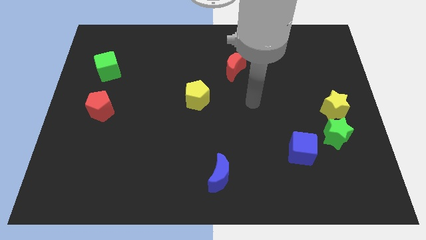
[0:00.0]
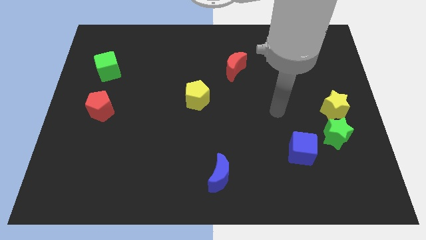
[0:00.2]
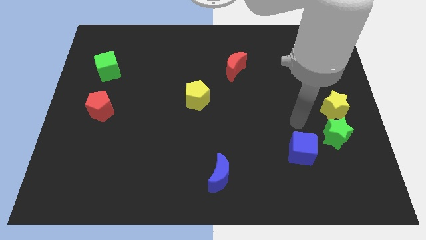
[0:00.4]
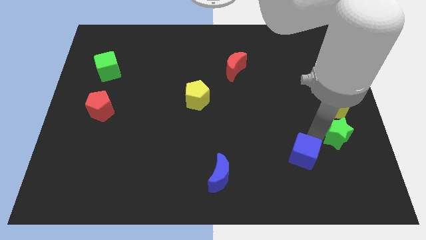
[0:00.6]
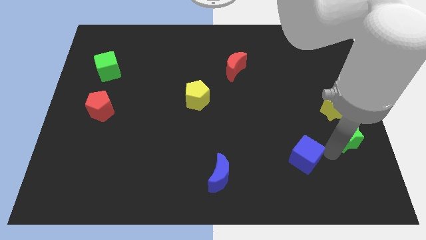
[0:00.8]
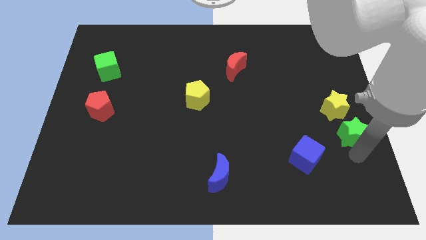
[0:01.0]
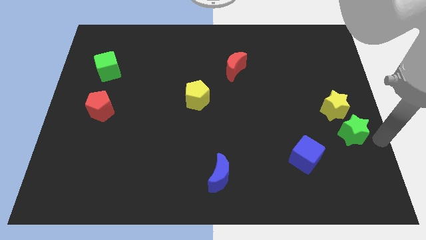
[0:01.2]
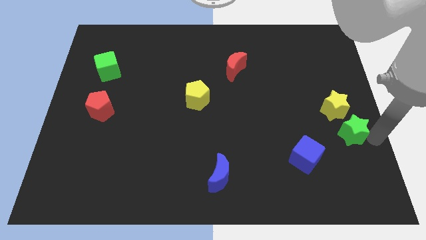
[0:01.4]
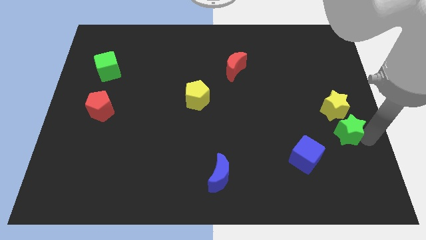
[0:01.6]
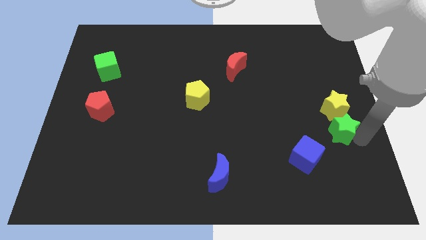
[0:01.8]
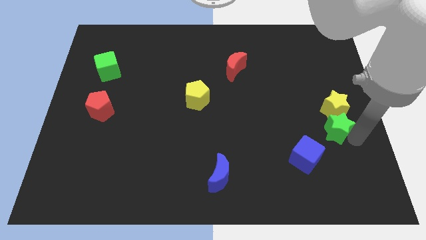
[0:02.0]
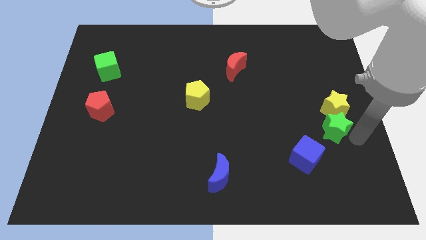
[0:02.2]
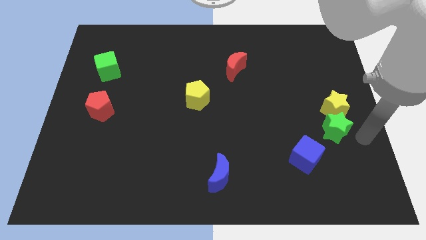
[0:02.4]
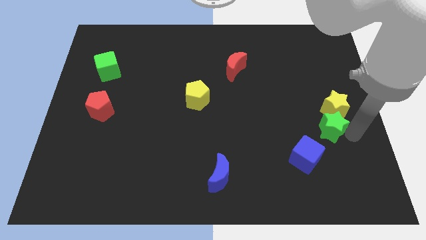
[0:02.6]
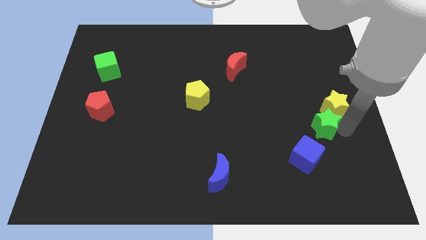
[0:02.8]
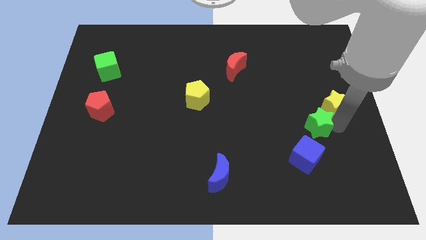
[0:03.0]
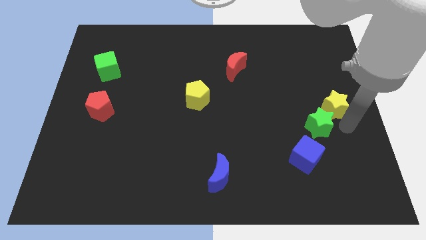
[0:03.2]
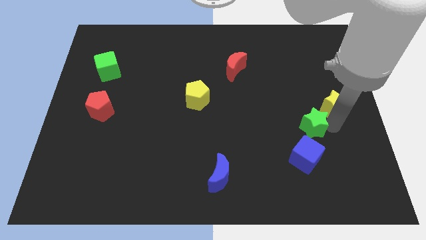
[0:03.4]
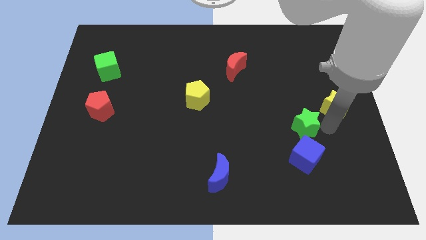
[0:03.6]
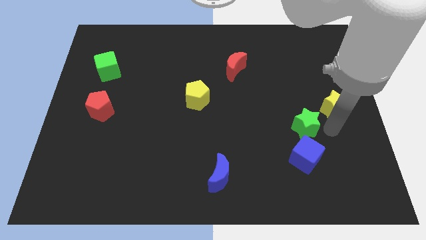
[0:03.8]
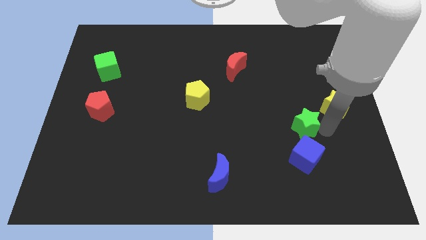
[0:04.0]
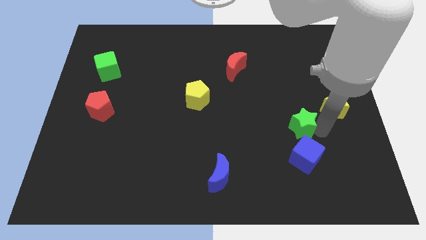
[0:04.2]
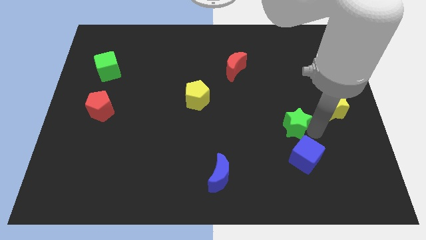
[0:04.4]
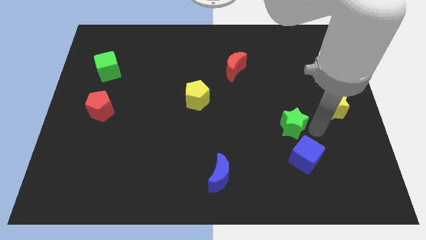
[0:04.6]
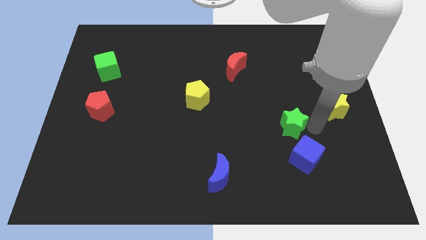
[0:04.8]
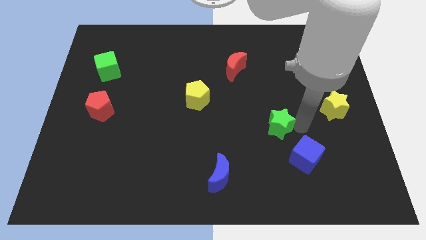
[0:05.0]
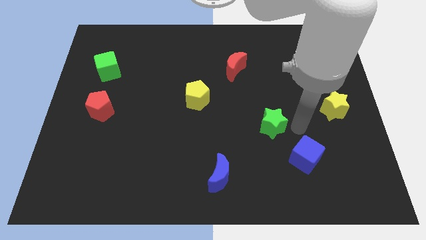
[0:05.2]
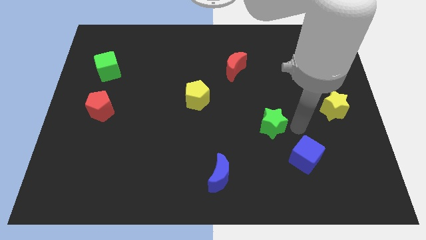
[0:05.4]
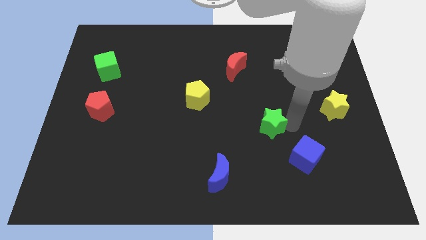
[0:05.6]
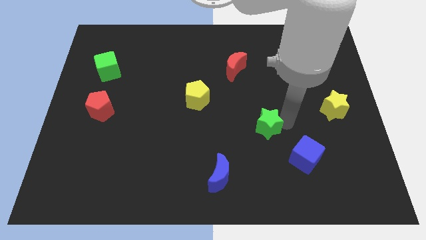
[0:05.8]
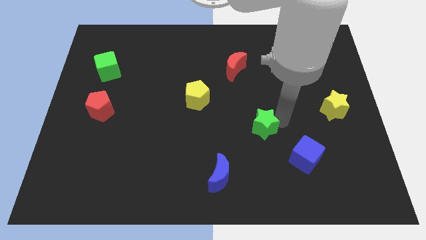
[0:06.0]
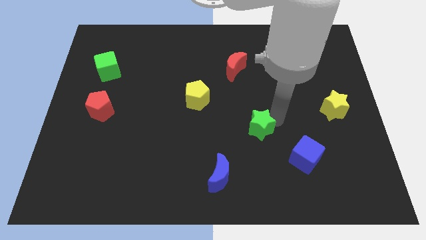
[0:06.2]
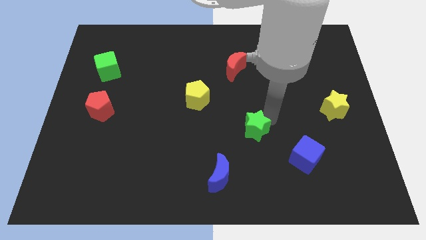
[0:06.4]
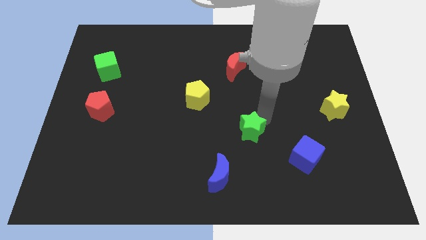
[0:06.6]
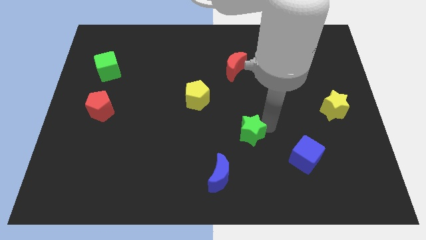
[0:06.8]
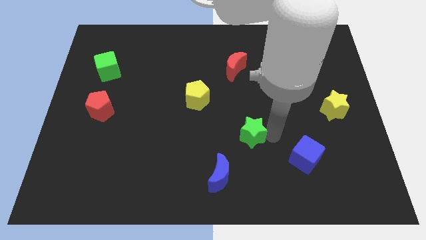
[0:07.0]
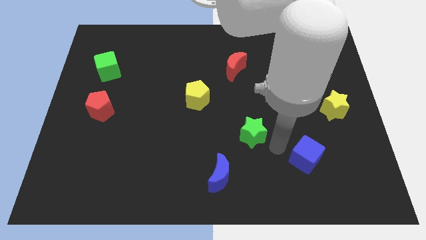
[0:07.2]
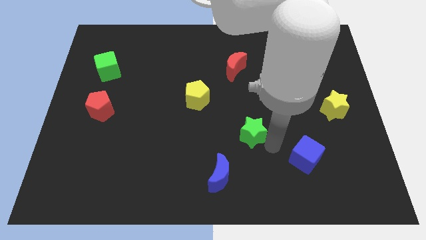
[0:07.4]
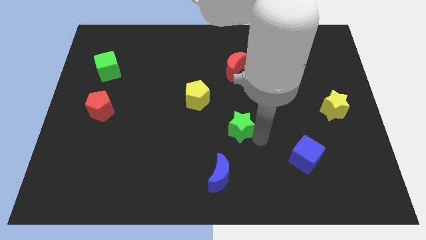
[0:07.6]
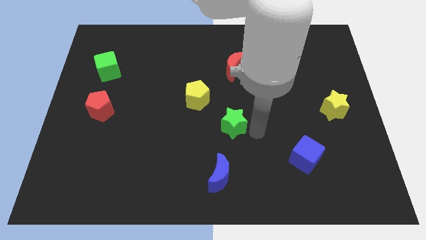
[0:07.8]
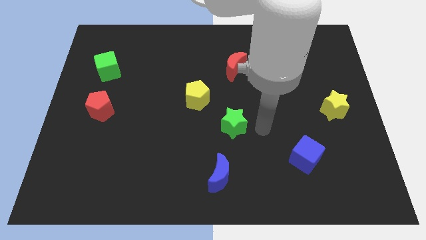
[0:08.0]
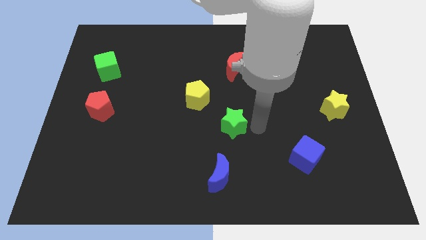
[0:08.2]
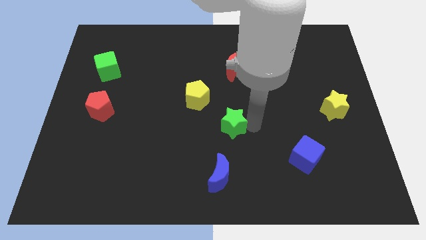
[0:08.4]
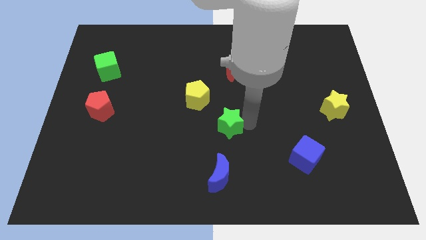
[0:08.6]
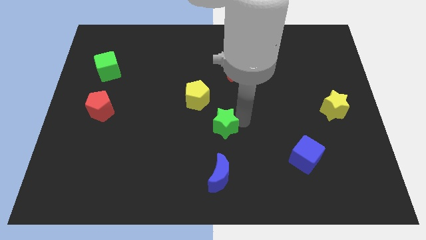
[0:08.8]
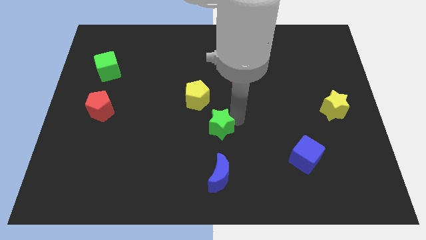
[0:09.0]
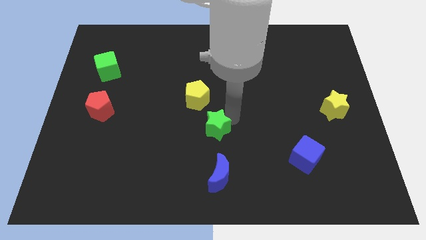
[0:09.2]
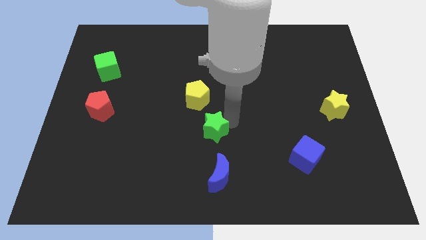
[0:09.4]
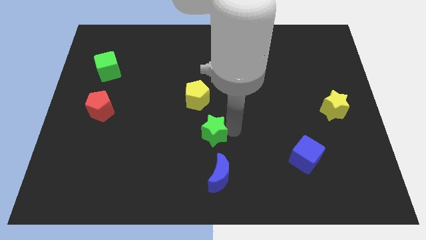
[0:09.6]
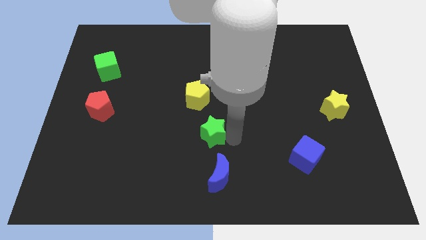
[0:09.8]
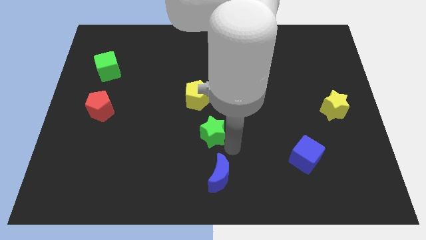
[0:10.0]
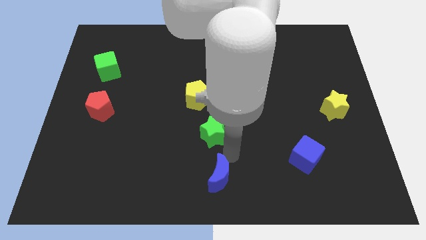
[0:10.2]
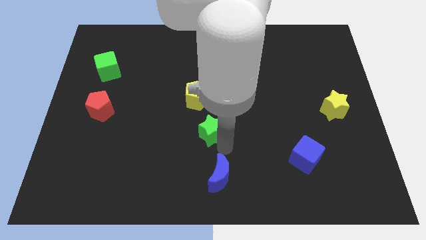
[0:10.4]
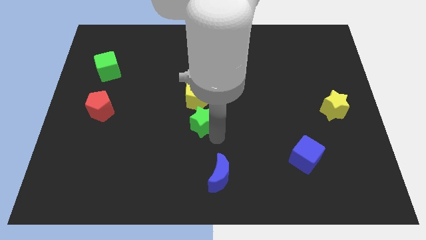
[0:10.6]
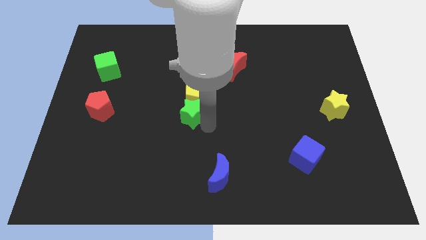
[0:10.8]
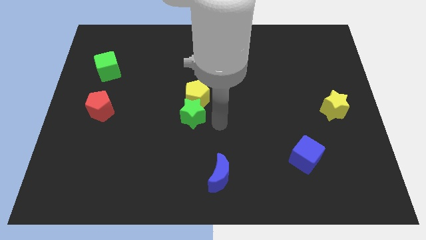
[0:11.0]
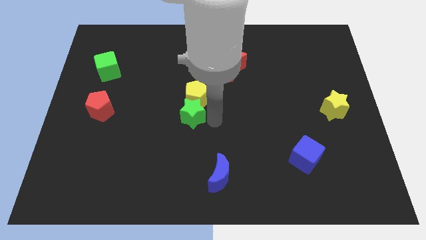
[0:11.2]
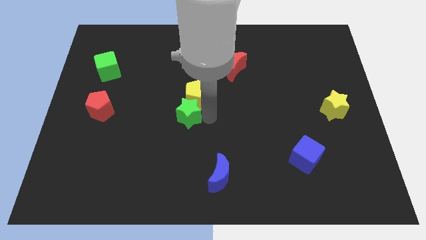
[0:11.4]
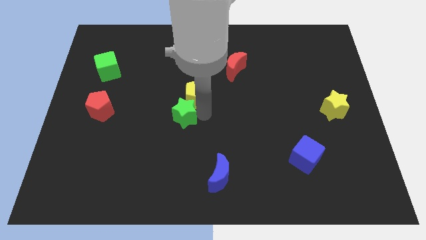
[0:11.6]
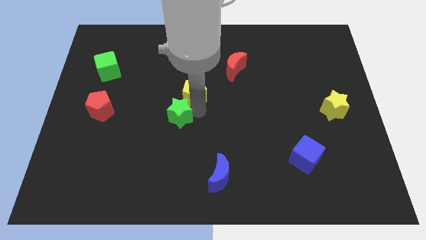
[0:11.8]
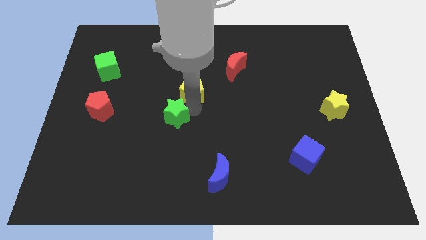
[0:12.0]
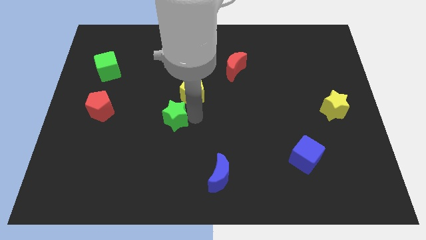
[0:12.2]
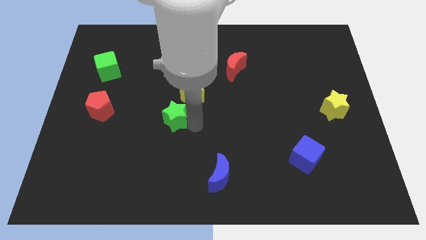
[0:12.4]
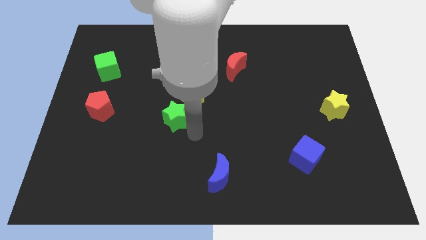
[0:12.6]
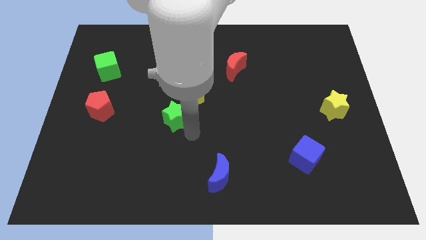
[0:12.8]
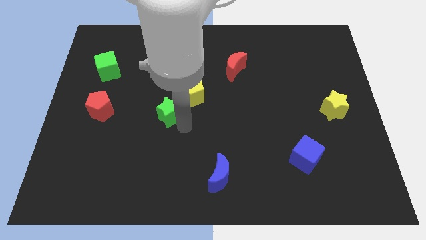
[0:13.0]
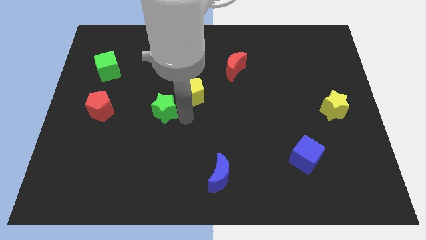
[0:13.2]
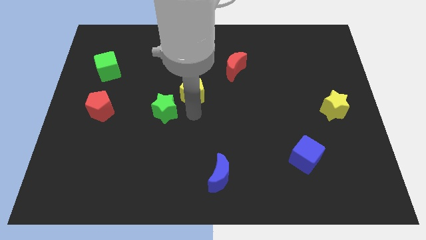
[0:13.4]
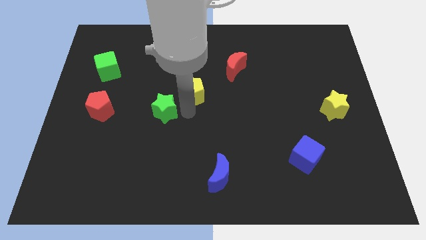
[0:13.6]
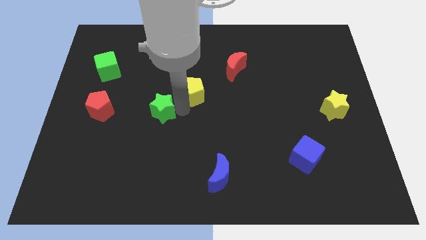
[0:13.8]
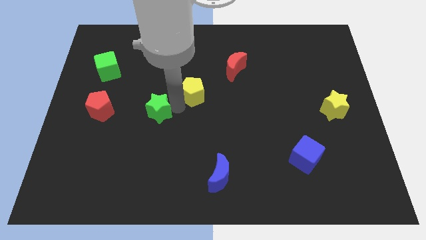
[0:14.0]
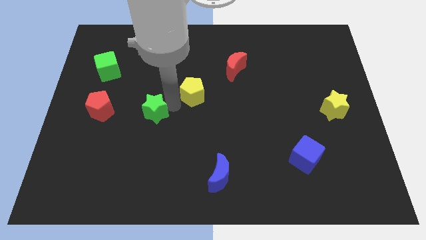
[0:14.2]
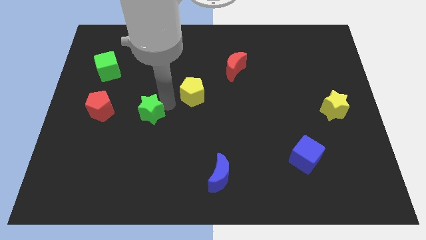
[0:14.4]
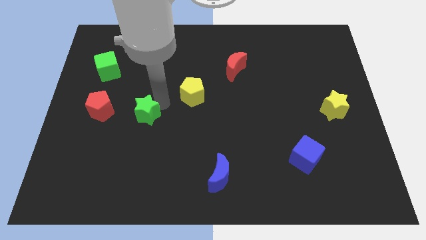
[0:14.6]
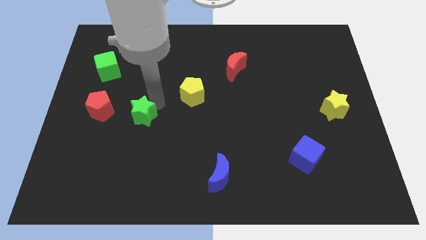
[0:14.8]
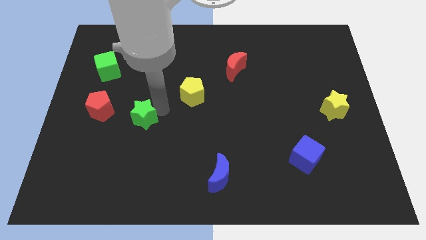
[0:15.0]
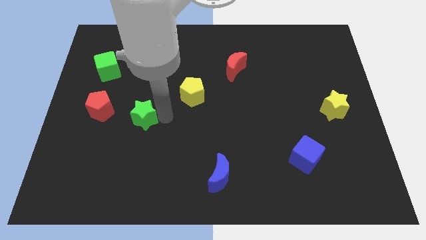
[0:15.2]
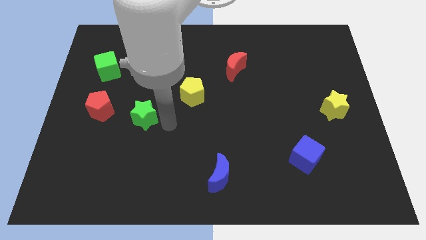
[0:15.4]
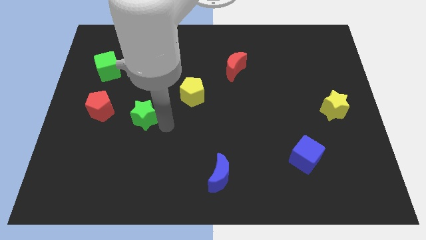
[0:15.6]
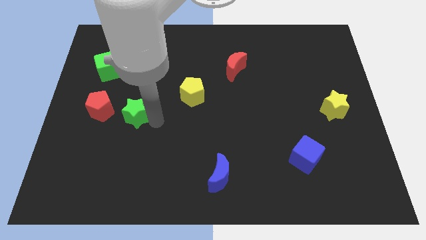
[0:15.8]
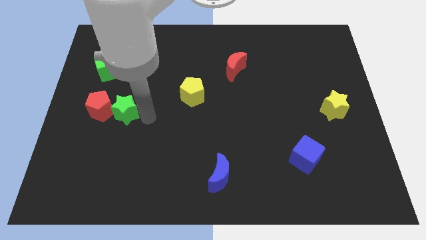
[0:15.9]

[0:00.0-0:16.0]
slide the green star towards the red pentagon
